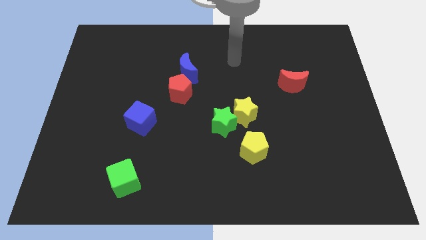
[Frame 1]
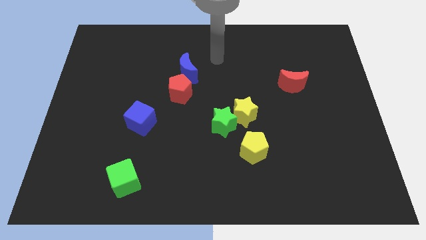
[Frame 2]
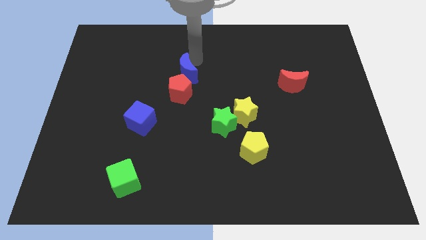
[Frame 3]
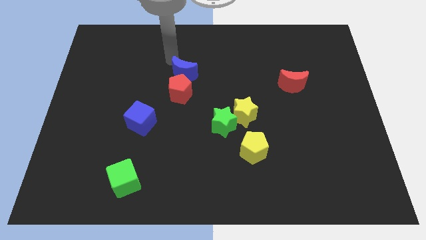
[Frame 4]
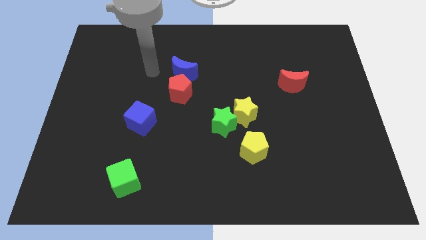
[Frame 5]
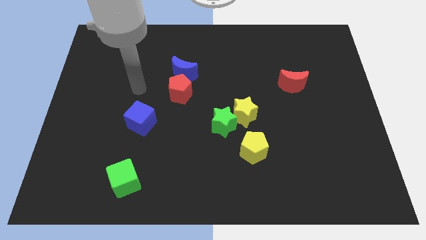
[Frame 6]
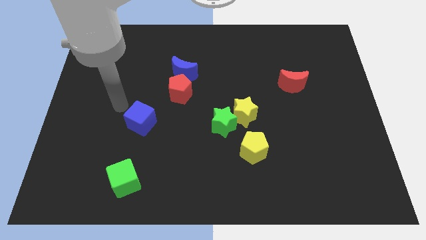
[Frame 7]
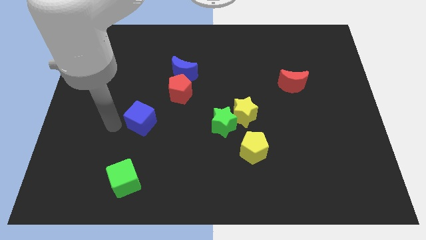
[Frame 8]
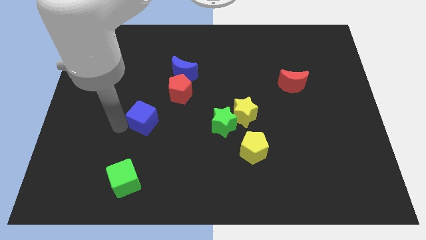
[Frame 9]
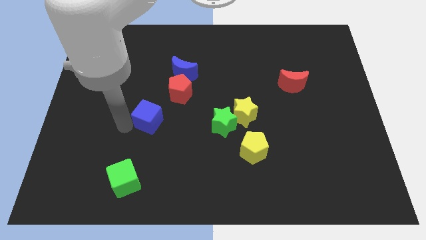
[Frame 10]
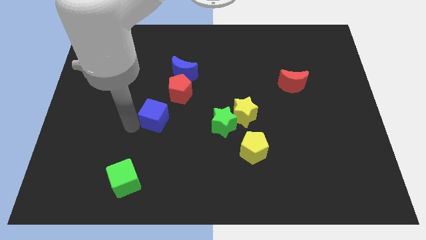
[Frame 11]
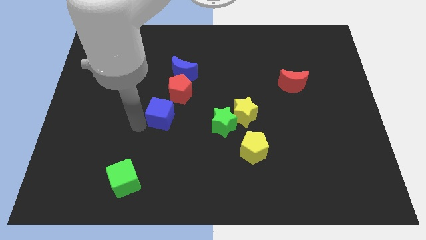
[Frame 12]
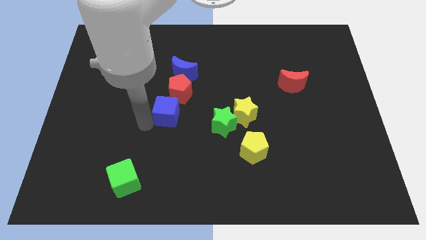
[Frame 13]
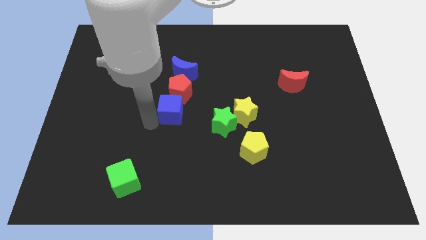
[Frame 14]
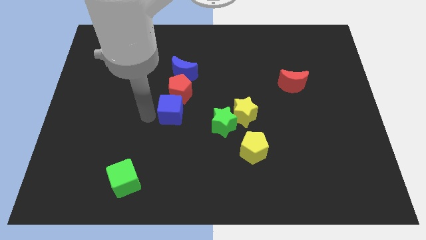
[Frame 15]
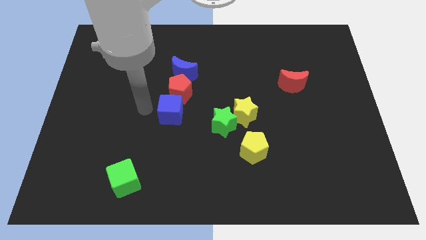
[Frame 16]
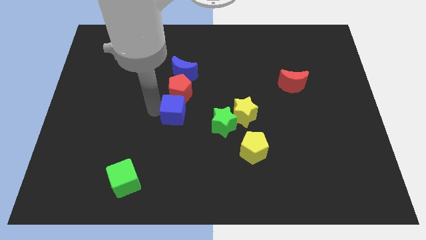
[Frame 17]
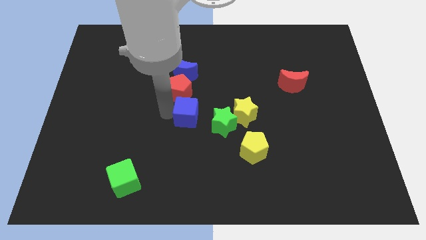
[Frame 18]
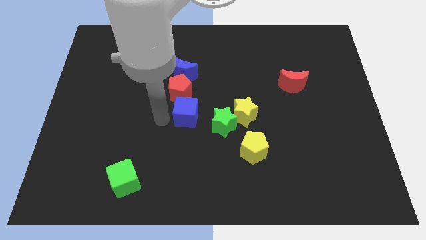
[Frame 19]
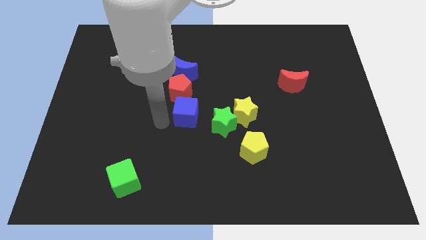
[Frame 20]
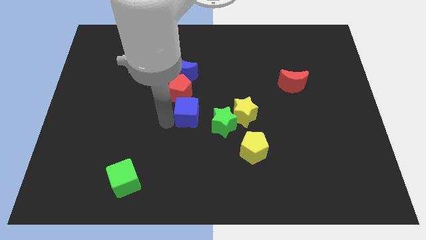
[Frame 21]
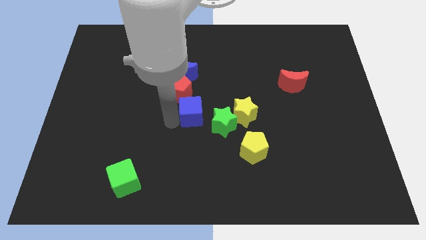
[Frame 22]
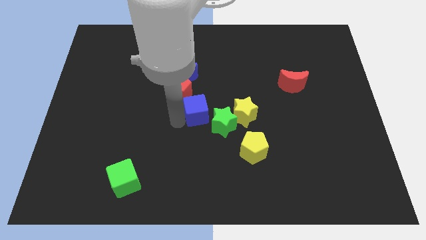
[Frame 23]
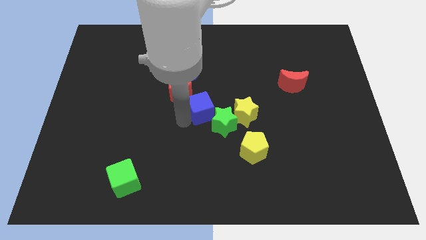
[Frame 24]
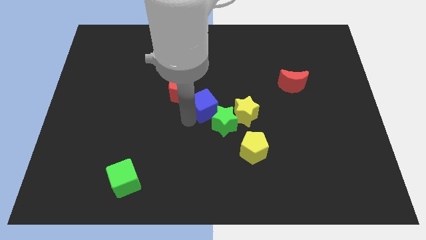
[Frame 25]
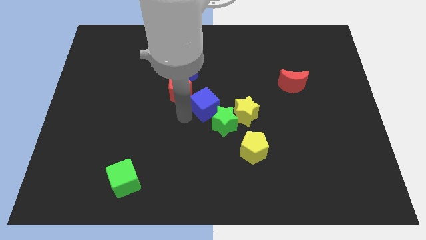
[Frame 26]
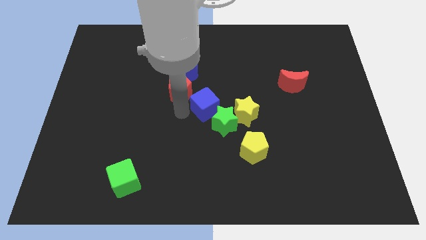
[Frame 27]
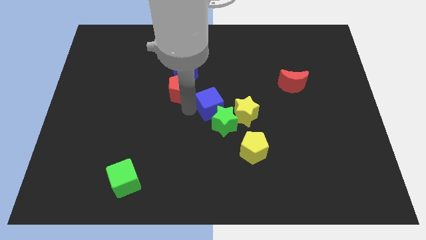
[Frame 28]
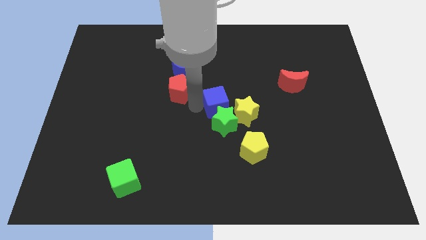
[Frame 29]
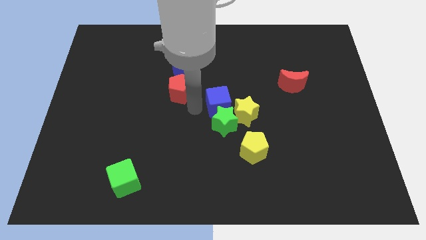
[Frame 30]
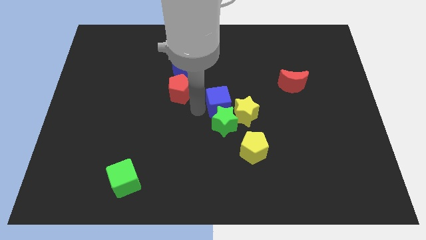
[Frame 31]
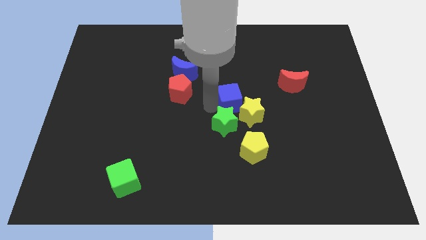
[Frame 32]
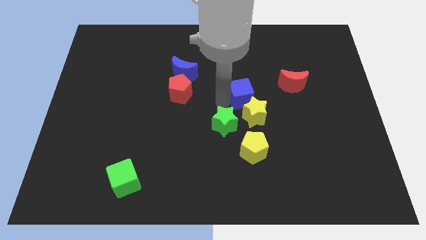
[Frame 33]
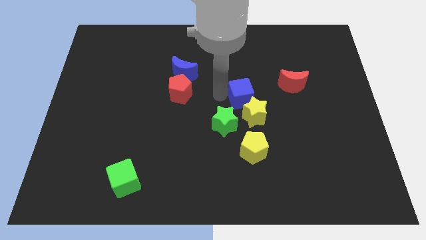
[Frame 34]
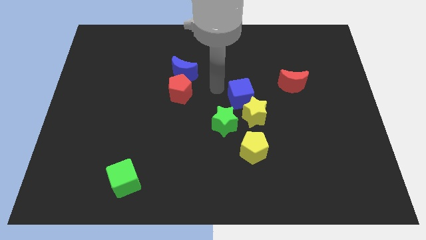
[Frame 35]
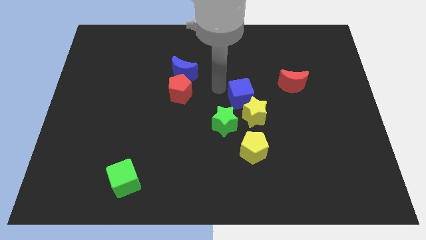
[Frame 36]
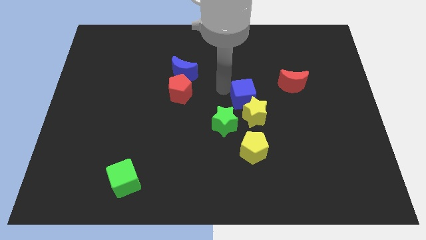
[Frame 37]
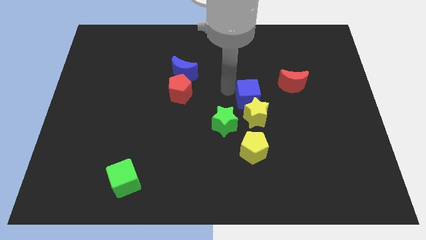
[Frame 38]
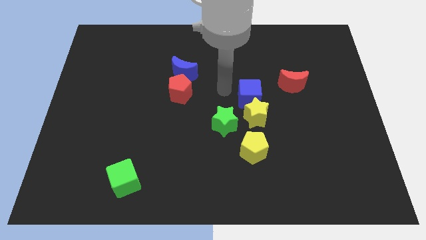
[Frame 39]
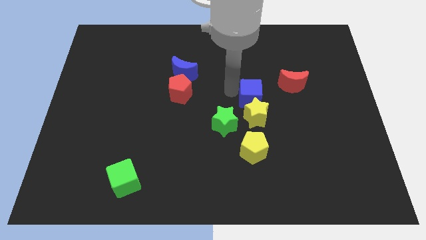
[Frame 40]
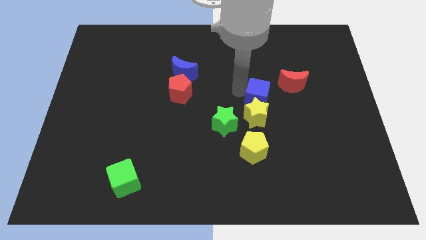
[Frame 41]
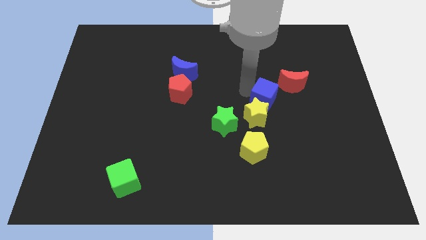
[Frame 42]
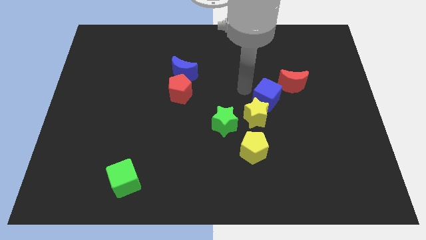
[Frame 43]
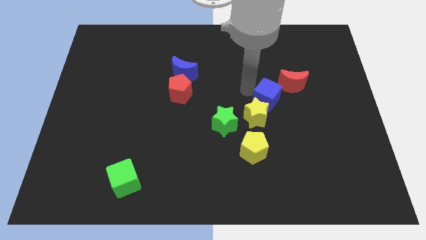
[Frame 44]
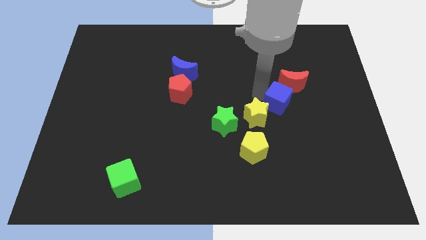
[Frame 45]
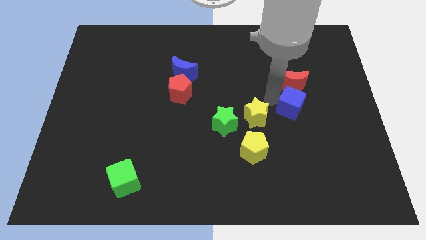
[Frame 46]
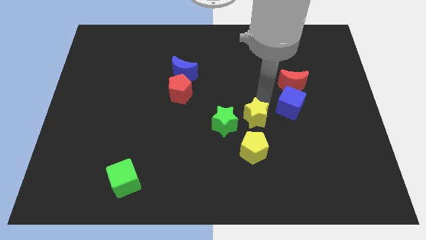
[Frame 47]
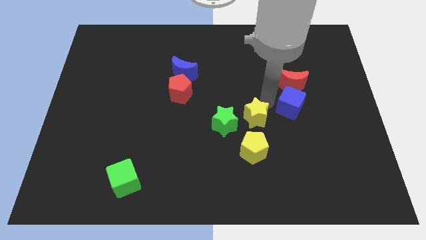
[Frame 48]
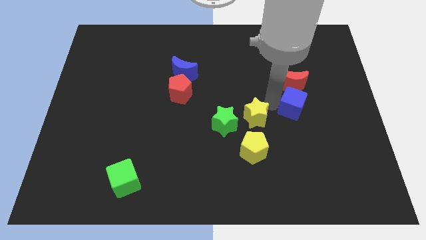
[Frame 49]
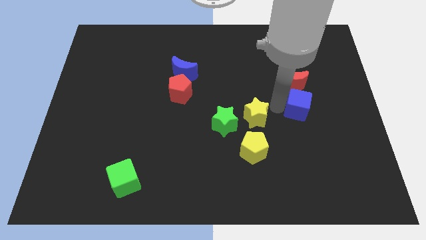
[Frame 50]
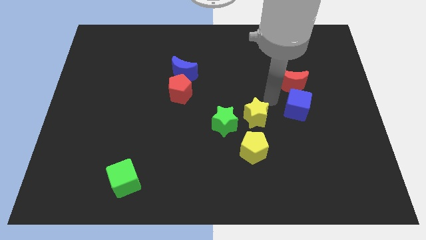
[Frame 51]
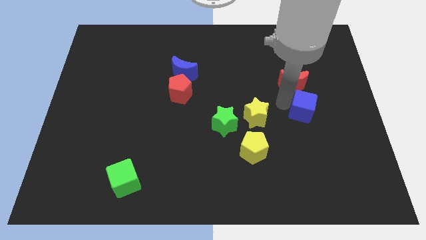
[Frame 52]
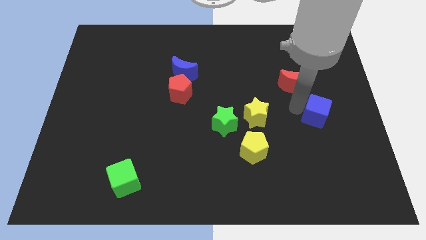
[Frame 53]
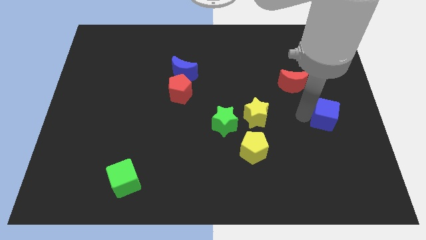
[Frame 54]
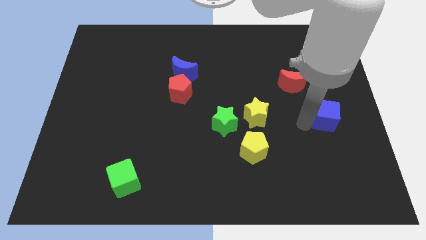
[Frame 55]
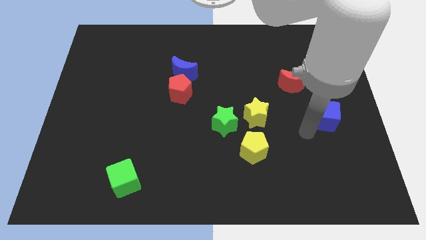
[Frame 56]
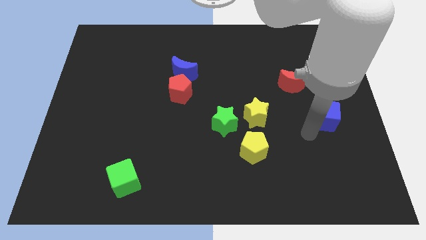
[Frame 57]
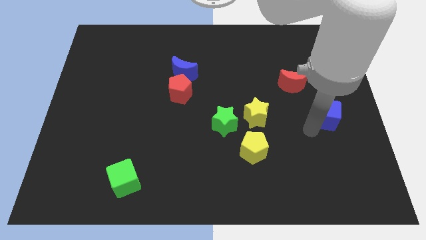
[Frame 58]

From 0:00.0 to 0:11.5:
put the blue cube to the right side of the board
